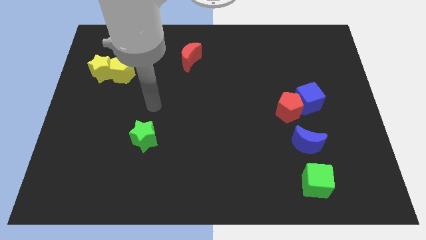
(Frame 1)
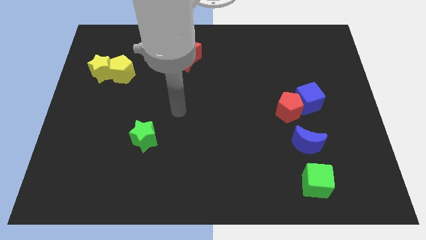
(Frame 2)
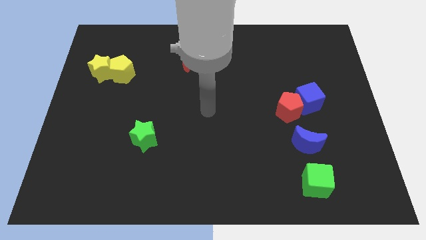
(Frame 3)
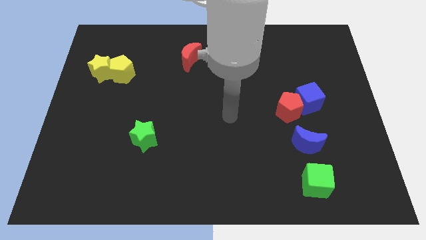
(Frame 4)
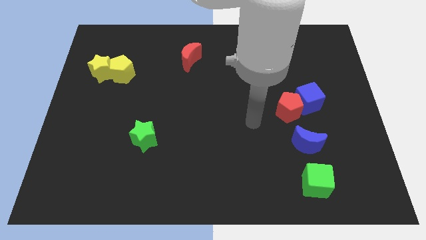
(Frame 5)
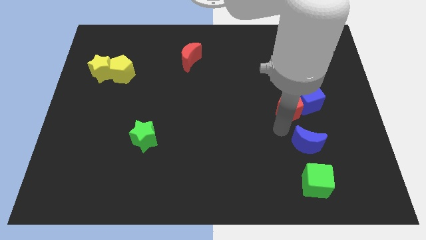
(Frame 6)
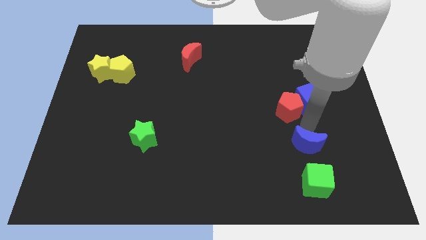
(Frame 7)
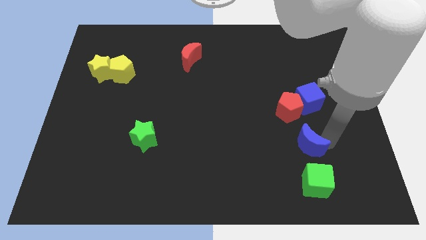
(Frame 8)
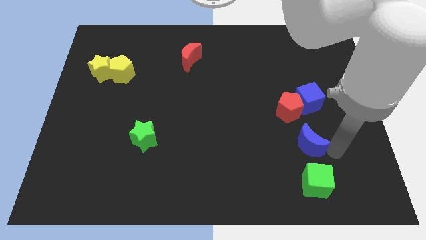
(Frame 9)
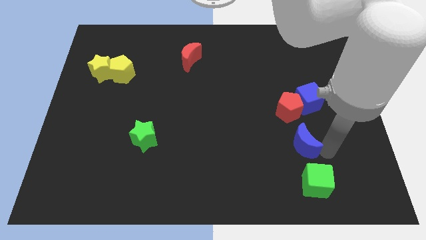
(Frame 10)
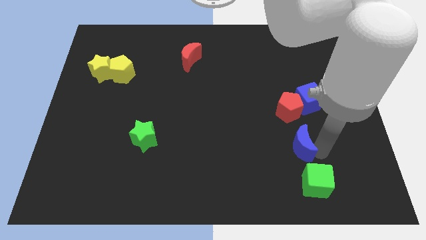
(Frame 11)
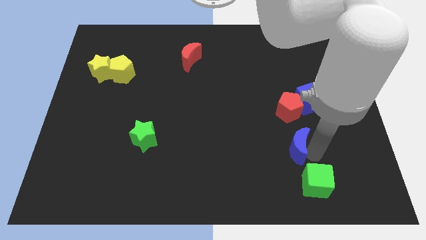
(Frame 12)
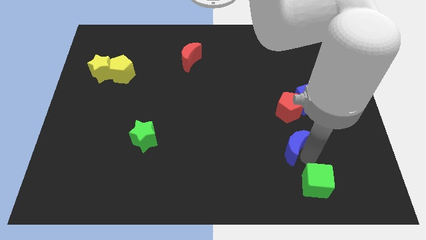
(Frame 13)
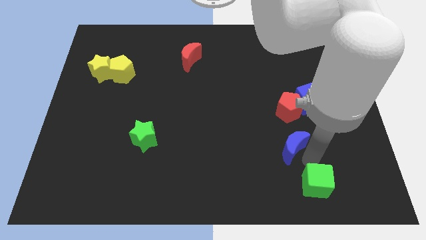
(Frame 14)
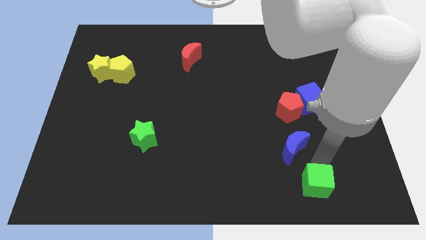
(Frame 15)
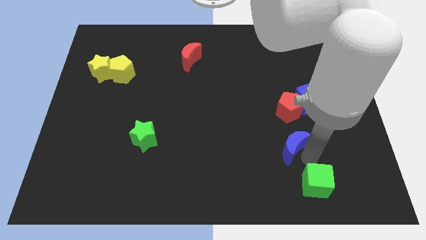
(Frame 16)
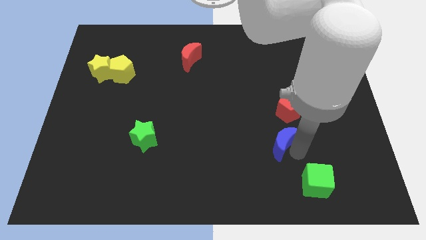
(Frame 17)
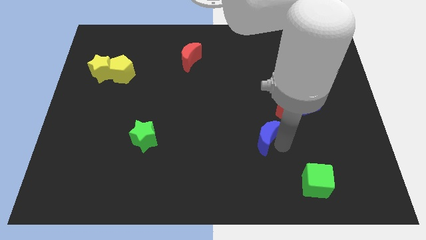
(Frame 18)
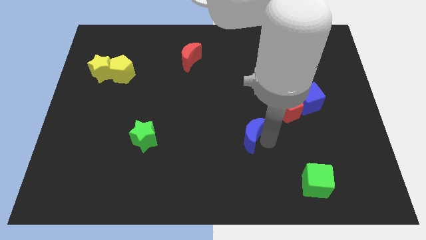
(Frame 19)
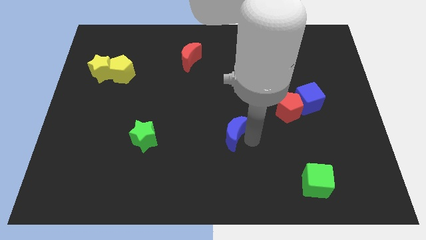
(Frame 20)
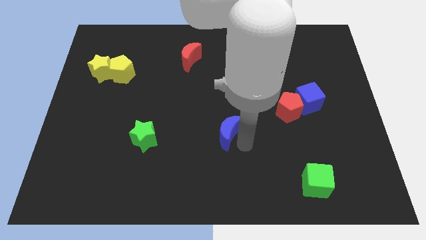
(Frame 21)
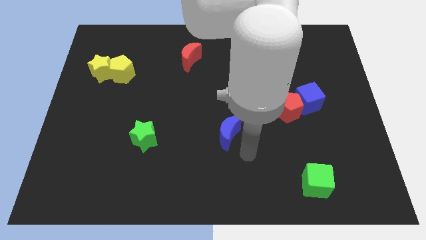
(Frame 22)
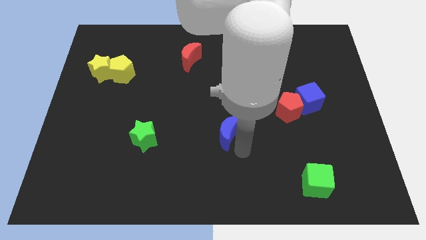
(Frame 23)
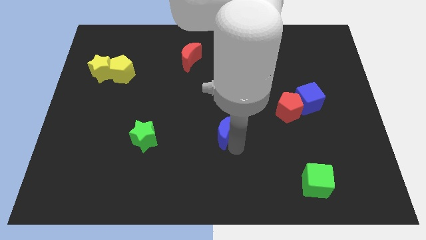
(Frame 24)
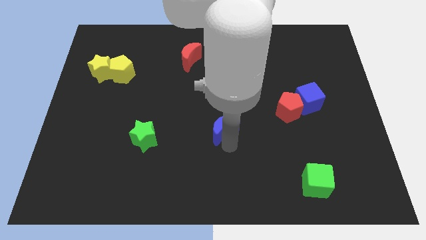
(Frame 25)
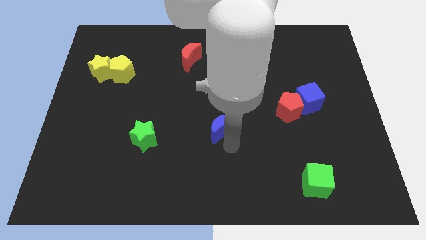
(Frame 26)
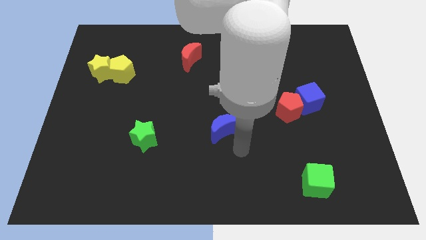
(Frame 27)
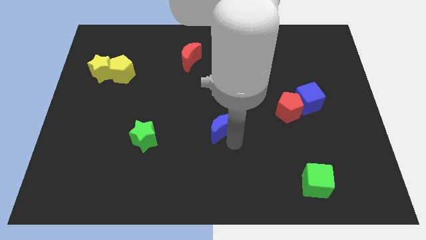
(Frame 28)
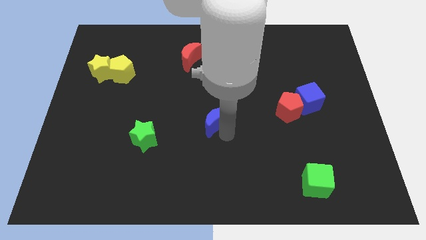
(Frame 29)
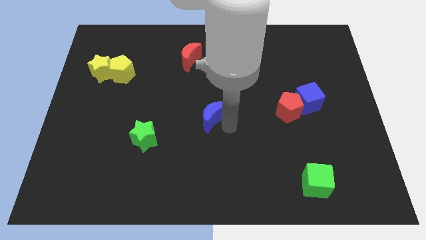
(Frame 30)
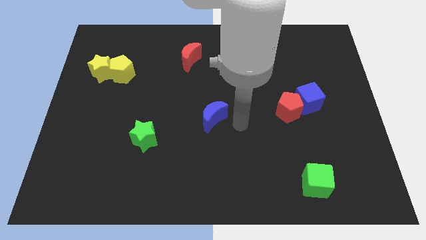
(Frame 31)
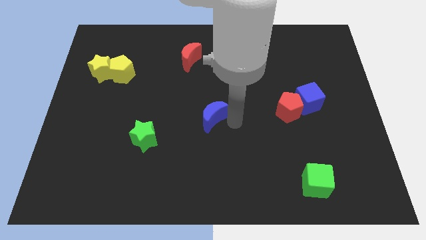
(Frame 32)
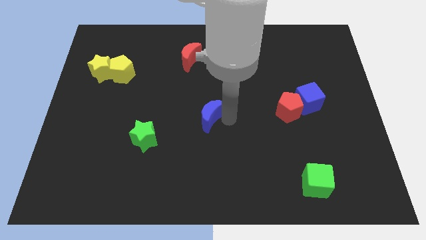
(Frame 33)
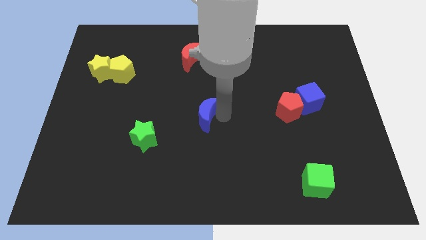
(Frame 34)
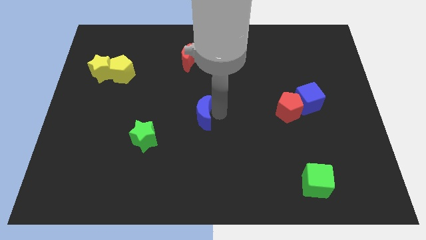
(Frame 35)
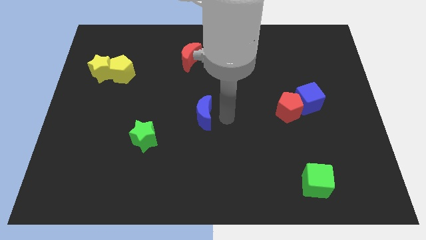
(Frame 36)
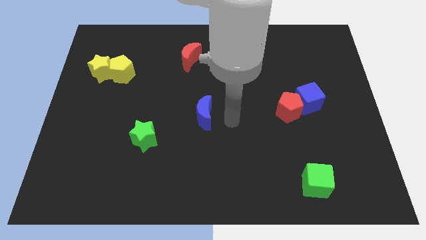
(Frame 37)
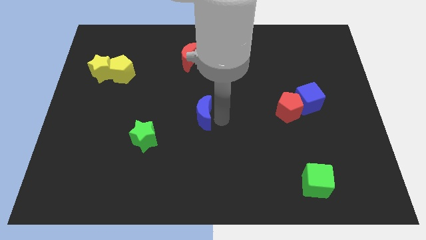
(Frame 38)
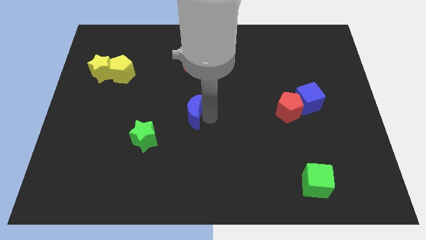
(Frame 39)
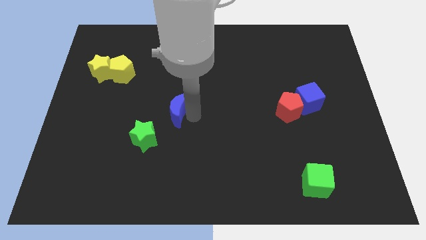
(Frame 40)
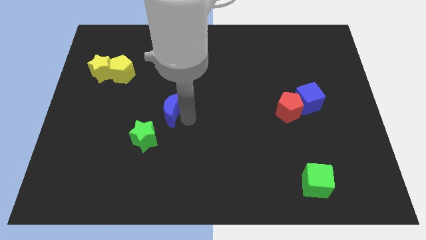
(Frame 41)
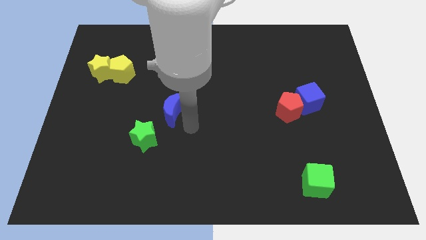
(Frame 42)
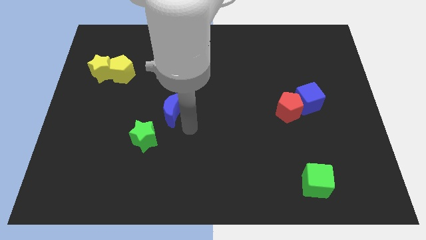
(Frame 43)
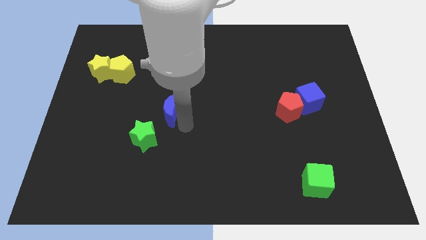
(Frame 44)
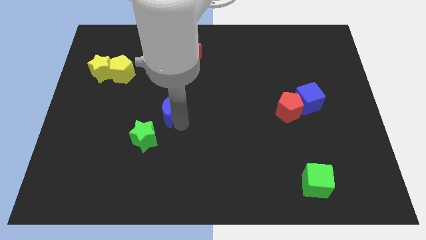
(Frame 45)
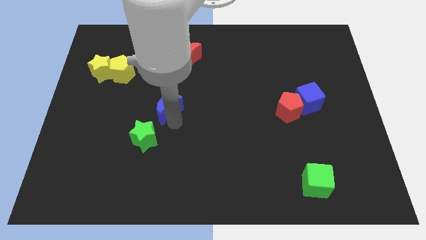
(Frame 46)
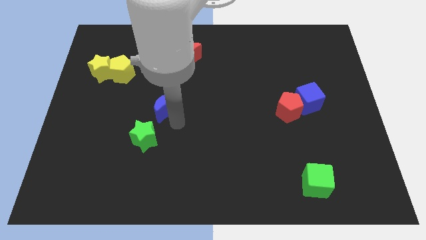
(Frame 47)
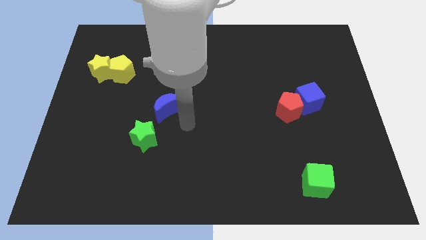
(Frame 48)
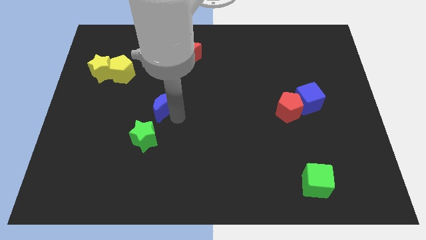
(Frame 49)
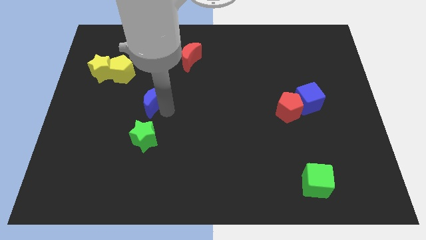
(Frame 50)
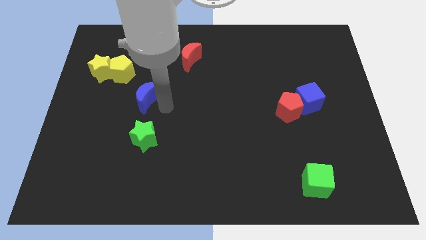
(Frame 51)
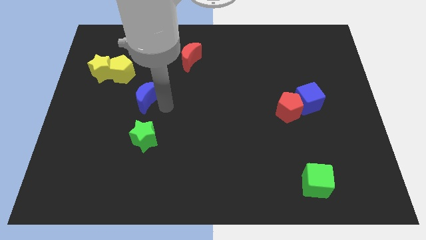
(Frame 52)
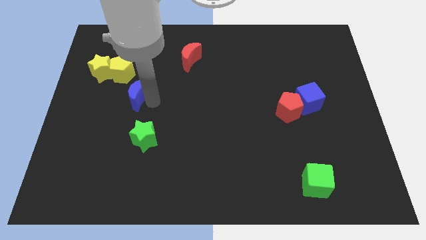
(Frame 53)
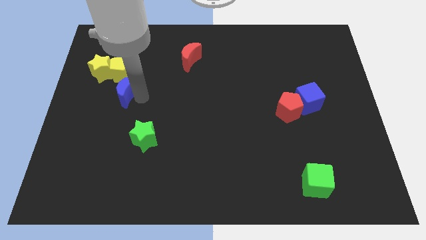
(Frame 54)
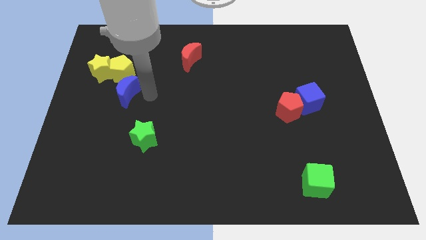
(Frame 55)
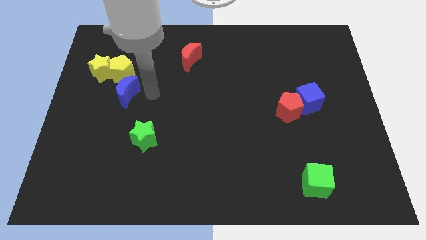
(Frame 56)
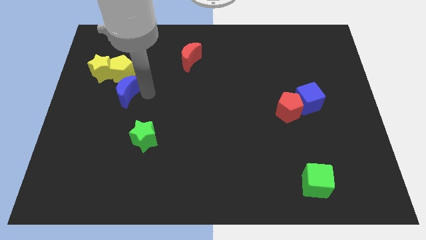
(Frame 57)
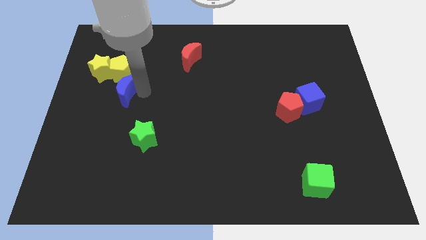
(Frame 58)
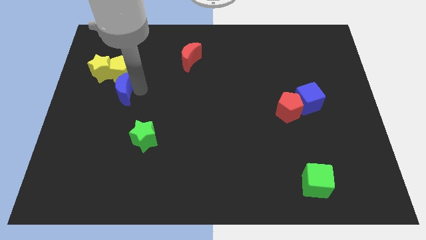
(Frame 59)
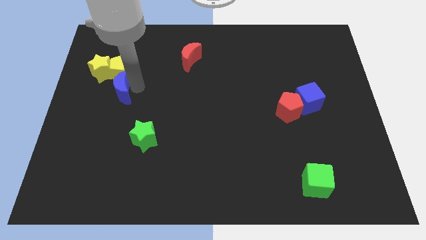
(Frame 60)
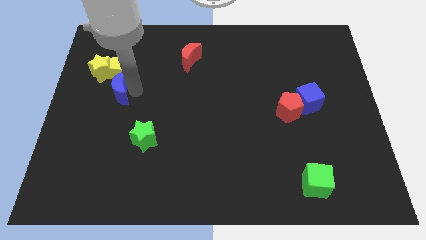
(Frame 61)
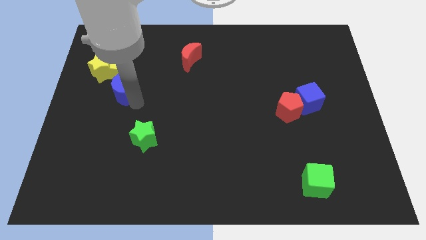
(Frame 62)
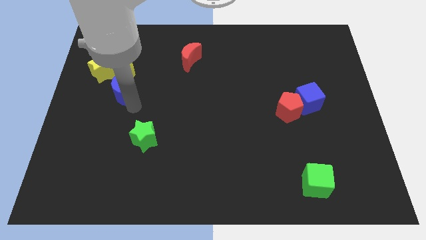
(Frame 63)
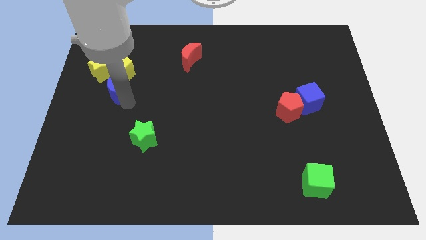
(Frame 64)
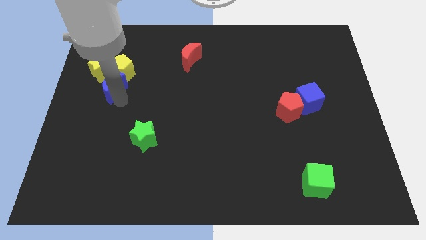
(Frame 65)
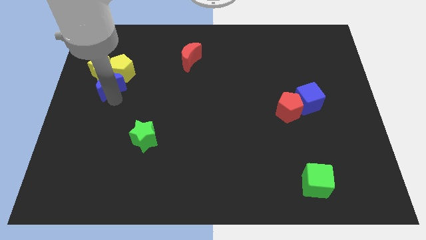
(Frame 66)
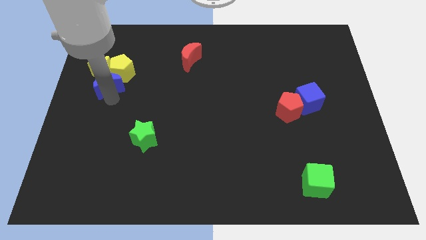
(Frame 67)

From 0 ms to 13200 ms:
push the blue moon close to the yellow star
